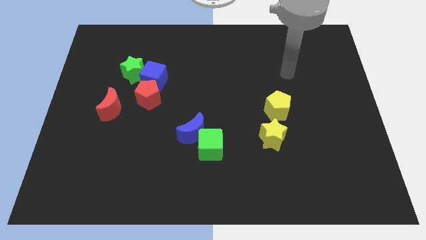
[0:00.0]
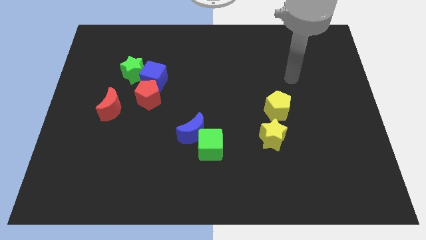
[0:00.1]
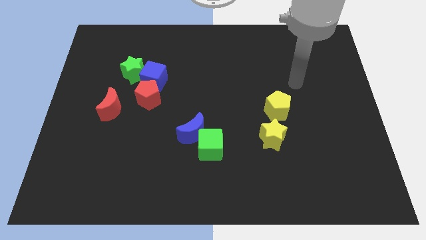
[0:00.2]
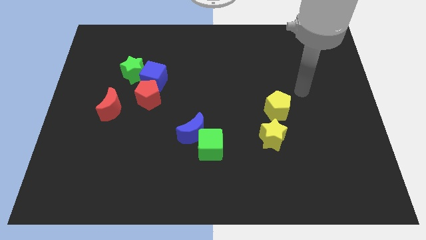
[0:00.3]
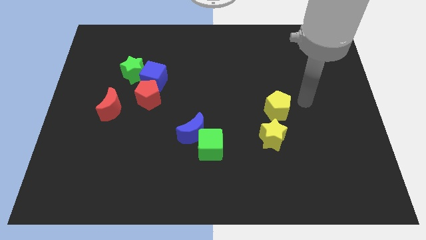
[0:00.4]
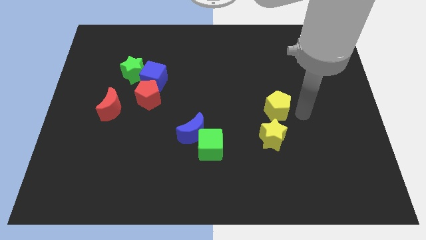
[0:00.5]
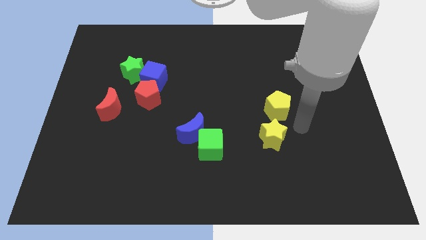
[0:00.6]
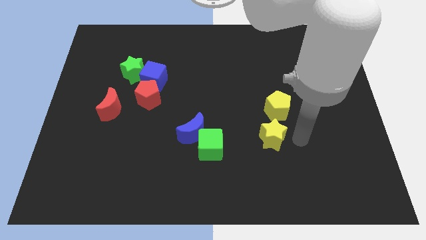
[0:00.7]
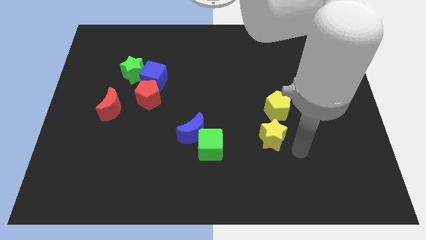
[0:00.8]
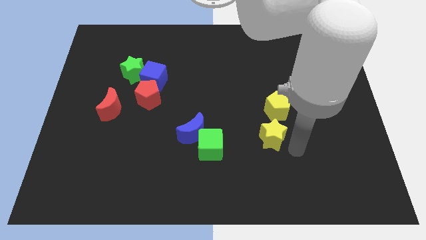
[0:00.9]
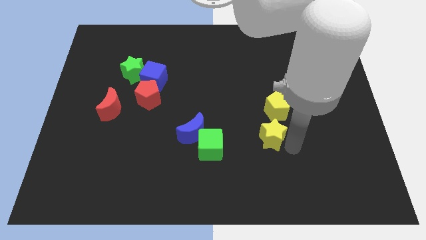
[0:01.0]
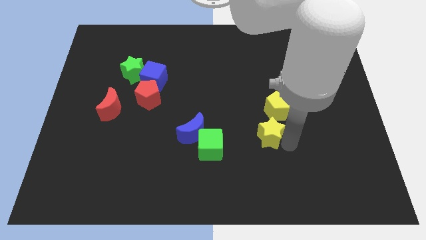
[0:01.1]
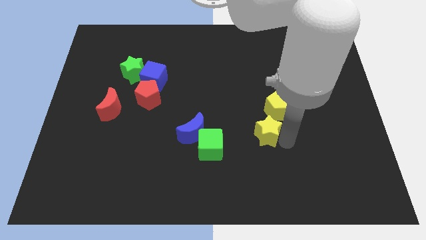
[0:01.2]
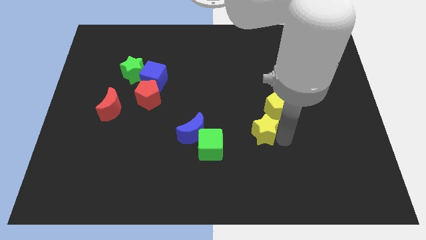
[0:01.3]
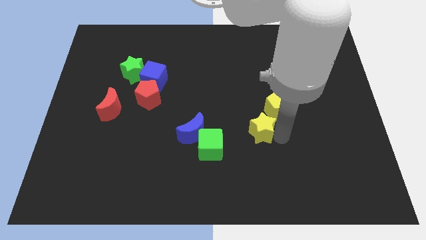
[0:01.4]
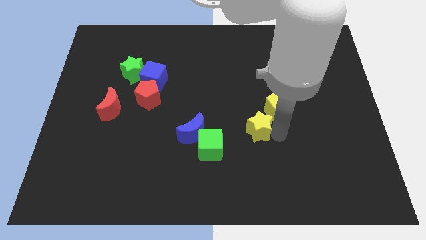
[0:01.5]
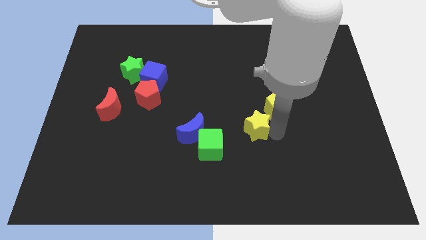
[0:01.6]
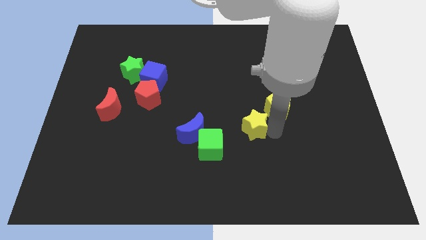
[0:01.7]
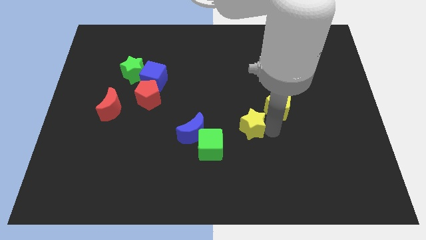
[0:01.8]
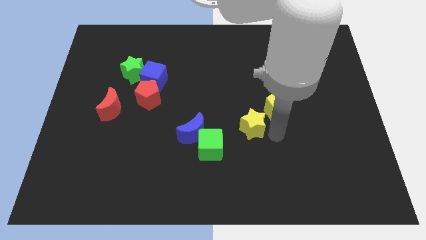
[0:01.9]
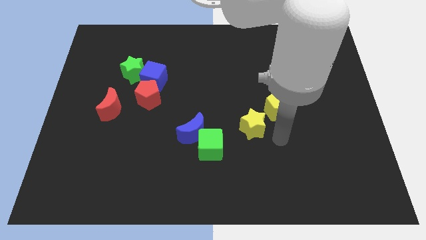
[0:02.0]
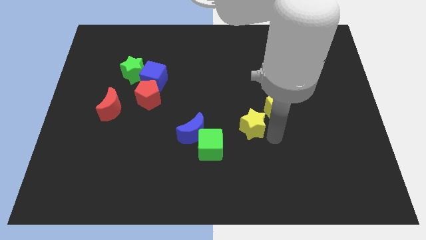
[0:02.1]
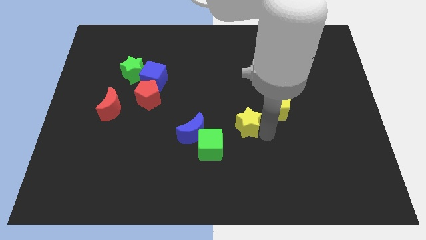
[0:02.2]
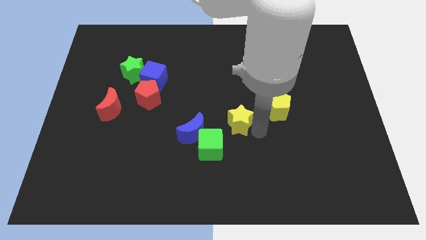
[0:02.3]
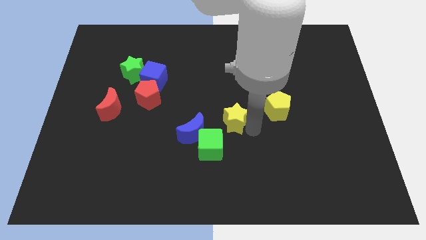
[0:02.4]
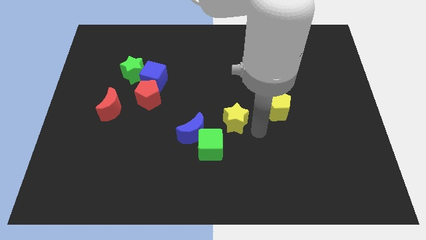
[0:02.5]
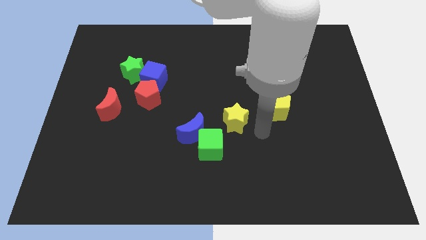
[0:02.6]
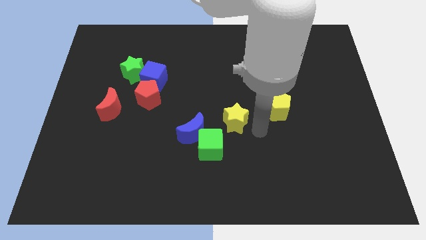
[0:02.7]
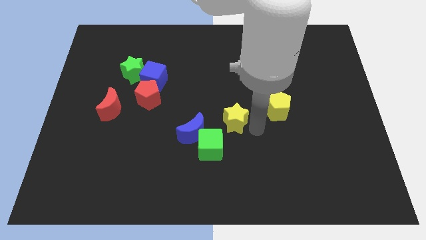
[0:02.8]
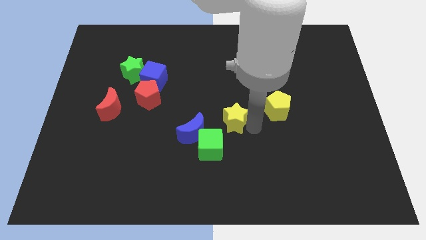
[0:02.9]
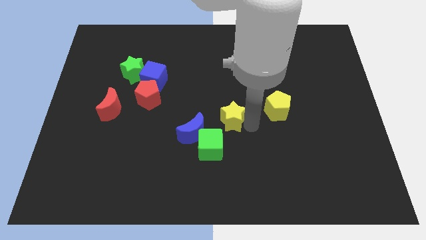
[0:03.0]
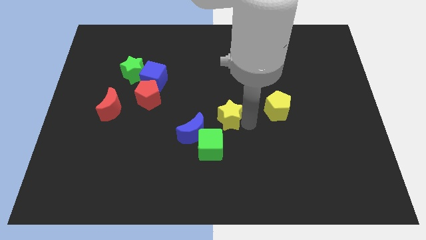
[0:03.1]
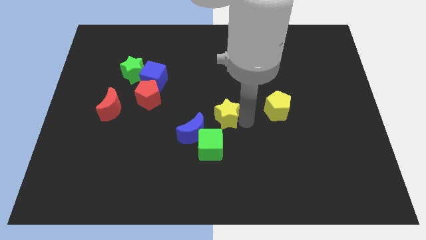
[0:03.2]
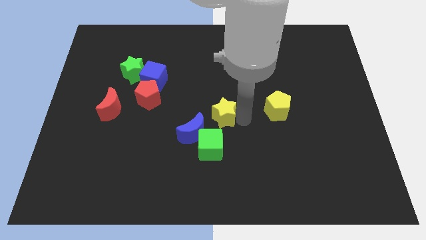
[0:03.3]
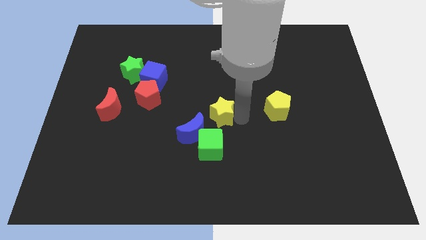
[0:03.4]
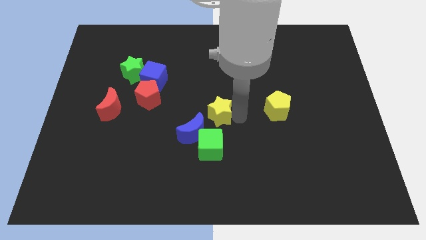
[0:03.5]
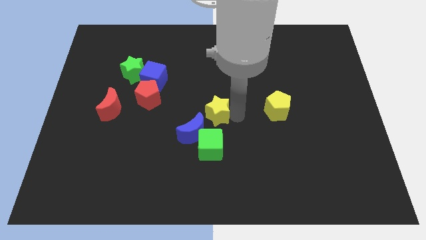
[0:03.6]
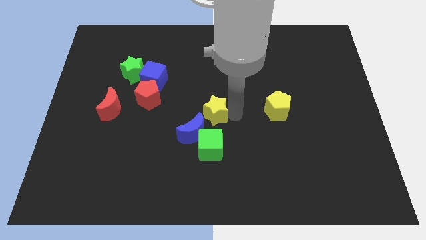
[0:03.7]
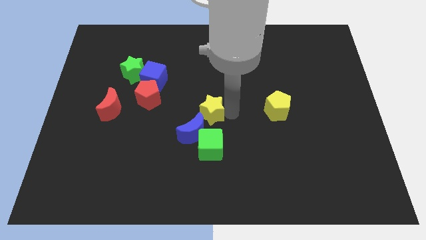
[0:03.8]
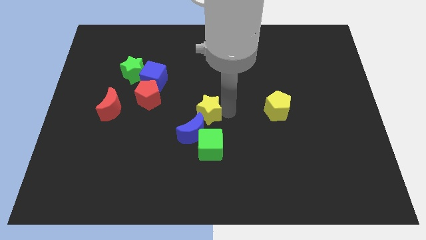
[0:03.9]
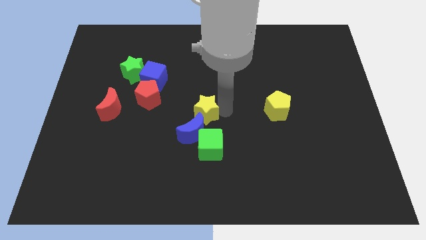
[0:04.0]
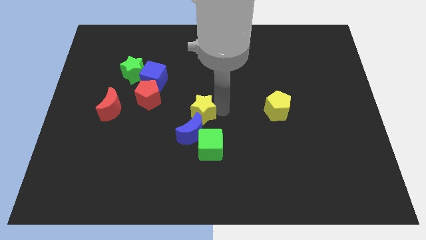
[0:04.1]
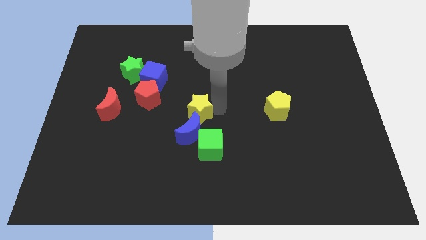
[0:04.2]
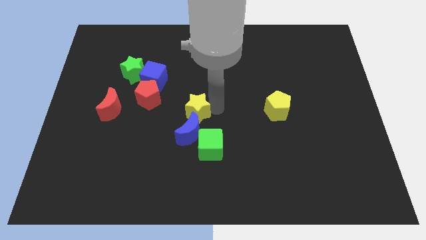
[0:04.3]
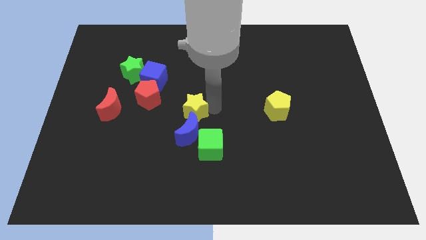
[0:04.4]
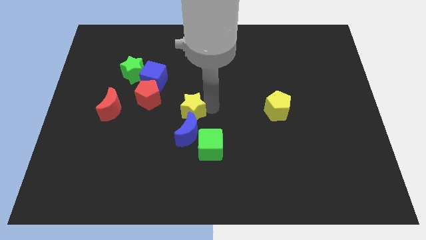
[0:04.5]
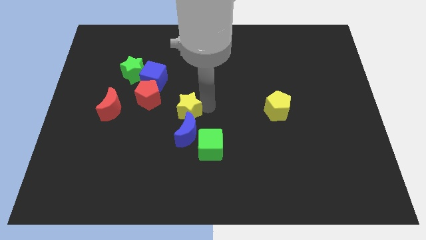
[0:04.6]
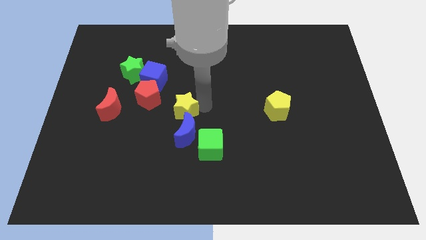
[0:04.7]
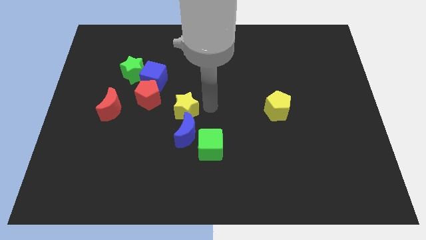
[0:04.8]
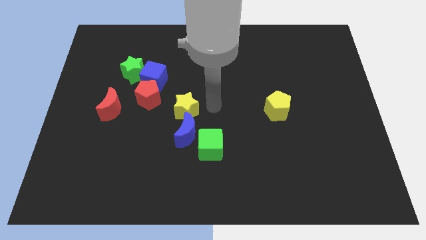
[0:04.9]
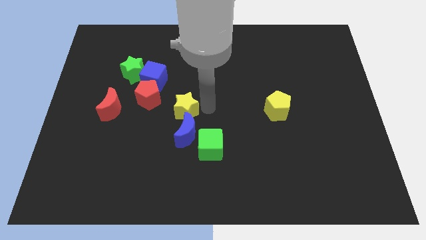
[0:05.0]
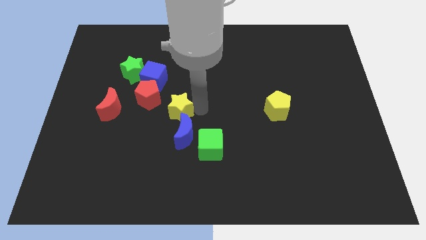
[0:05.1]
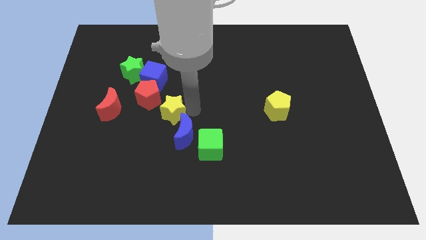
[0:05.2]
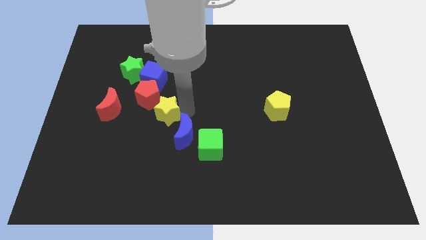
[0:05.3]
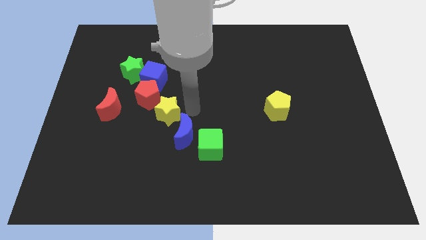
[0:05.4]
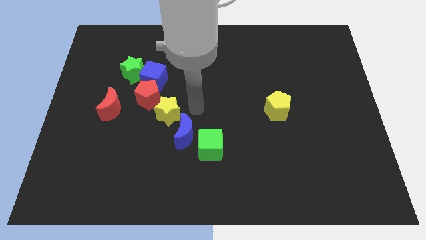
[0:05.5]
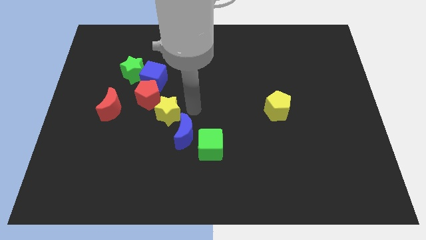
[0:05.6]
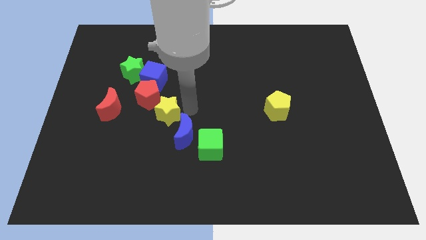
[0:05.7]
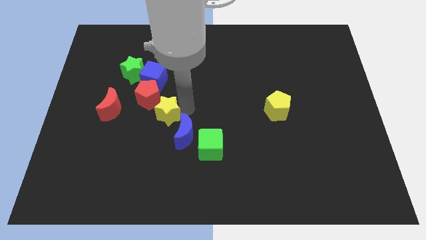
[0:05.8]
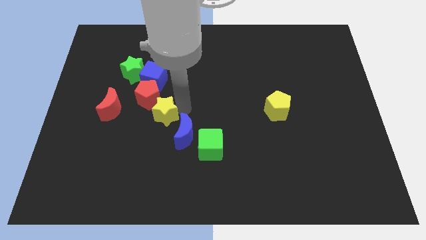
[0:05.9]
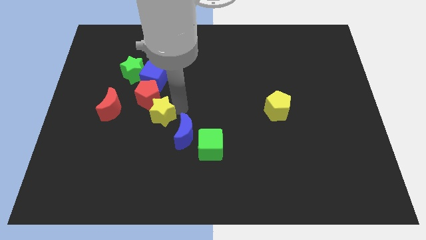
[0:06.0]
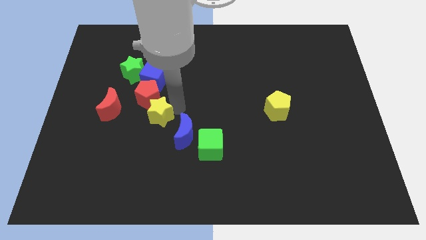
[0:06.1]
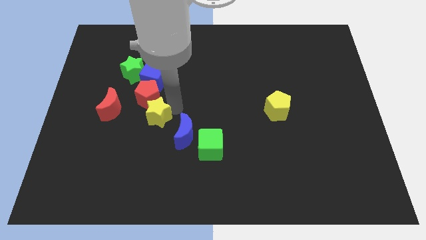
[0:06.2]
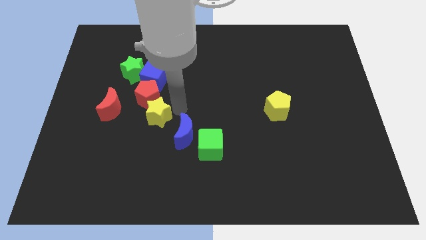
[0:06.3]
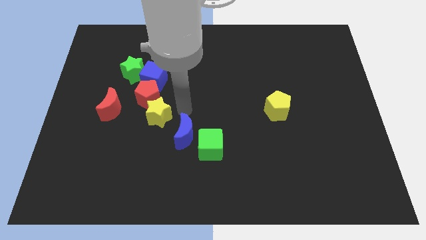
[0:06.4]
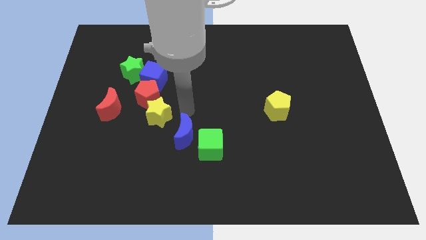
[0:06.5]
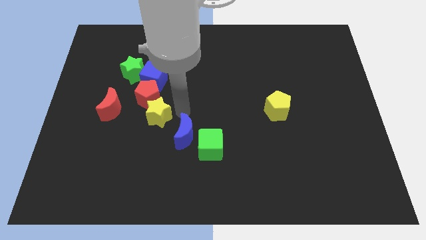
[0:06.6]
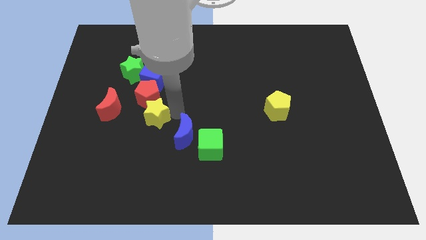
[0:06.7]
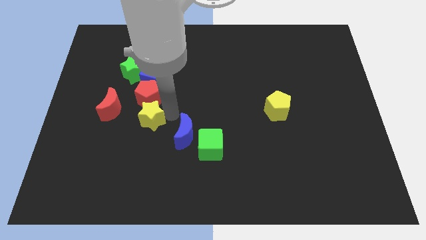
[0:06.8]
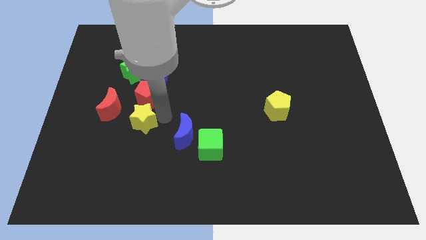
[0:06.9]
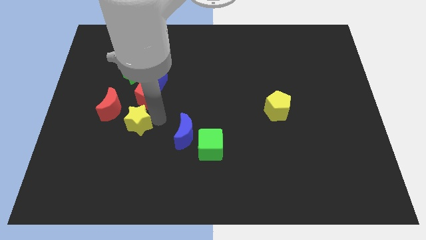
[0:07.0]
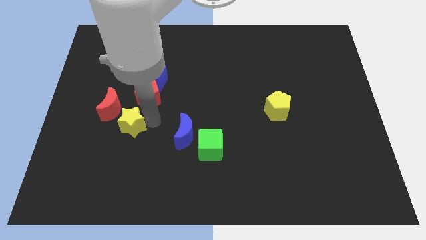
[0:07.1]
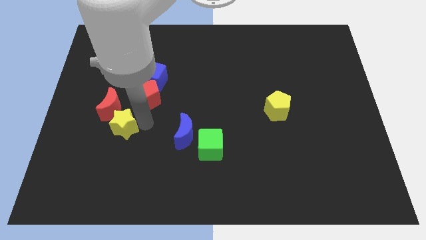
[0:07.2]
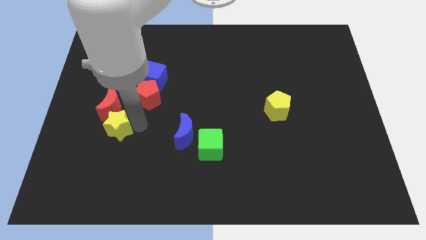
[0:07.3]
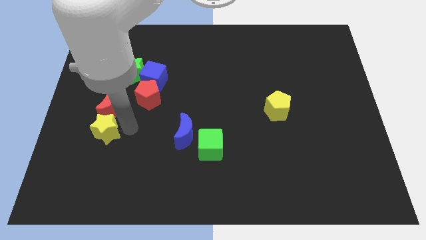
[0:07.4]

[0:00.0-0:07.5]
push the yellow star diagonally down and to the left of the red moon

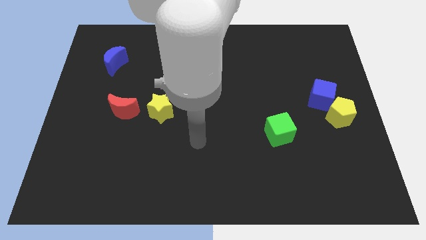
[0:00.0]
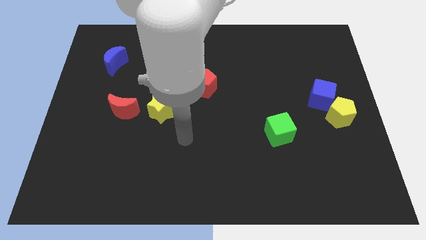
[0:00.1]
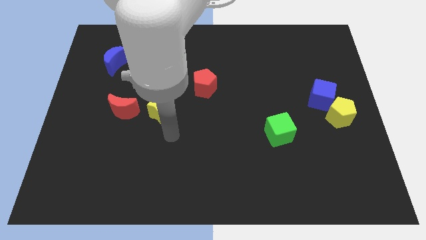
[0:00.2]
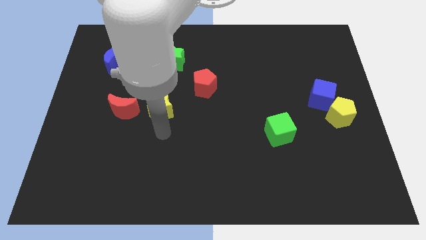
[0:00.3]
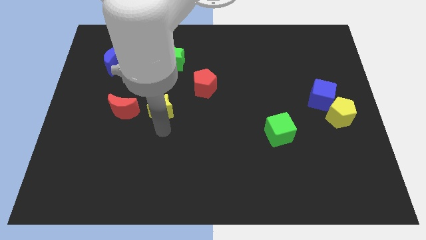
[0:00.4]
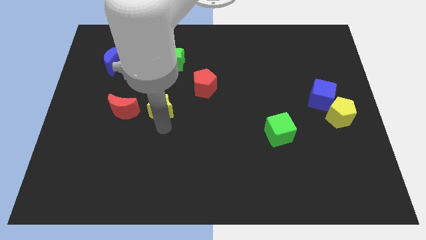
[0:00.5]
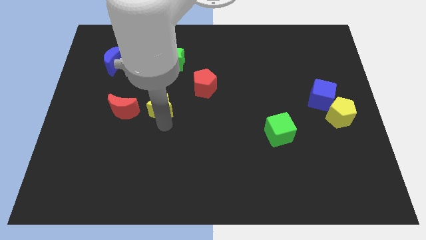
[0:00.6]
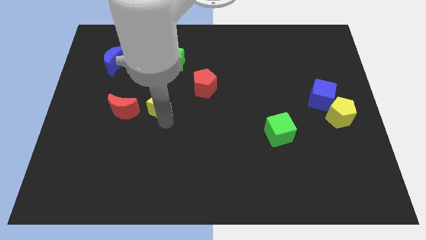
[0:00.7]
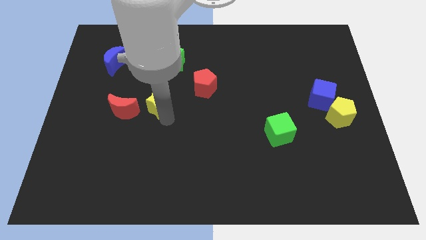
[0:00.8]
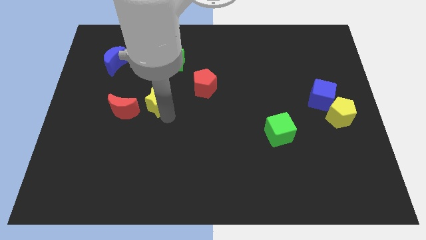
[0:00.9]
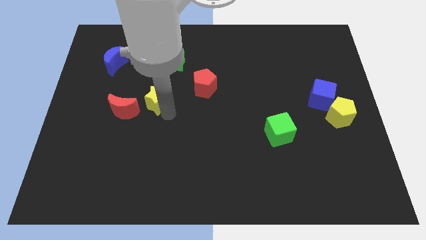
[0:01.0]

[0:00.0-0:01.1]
move the yellow star to the left side of the red pentagon
